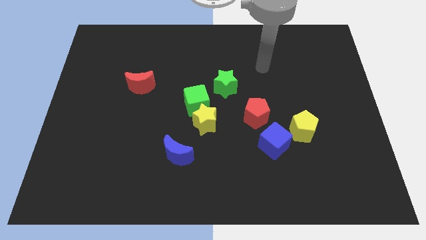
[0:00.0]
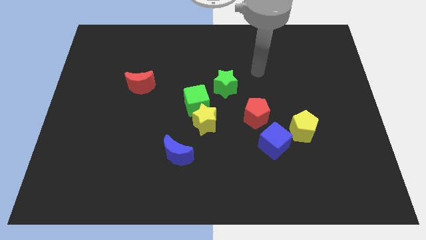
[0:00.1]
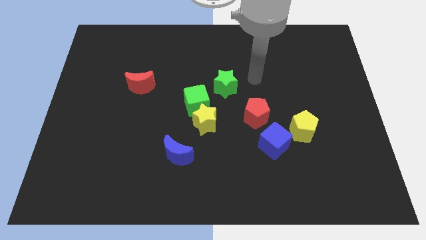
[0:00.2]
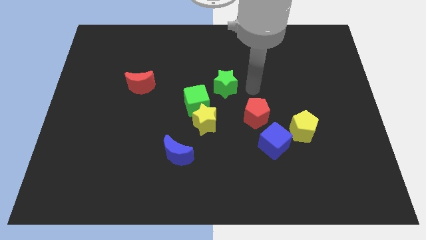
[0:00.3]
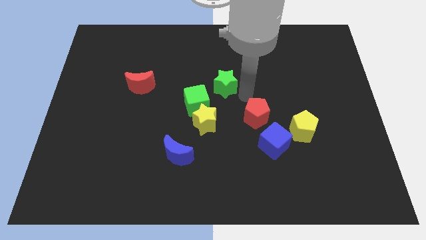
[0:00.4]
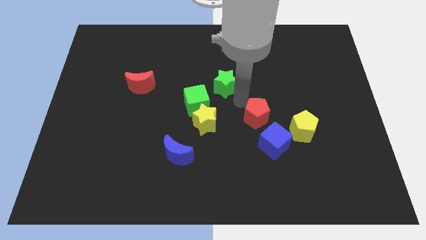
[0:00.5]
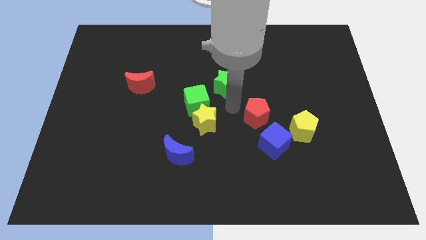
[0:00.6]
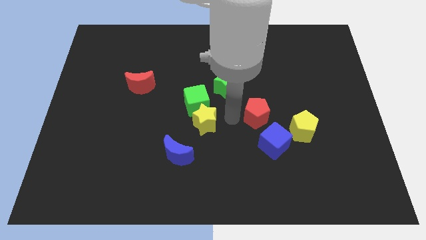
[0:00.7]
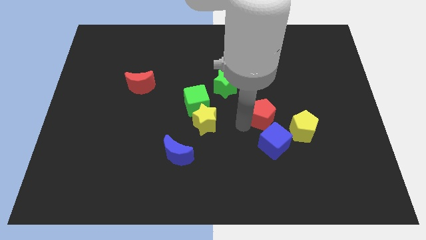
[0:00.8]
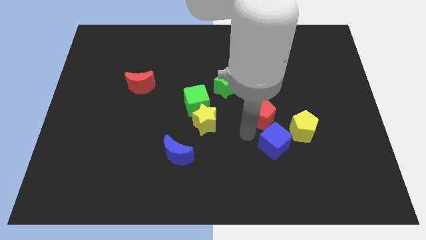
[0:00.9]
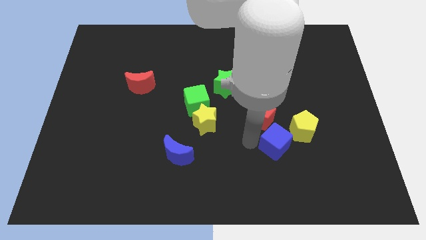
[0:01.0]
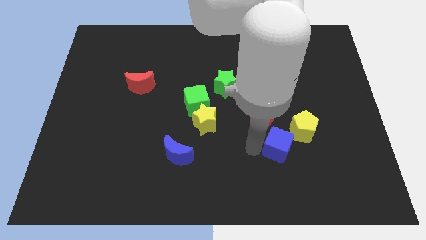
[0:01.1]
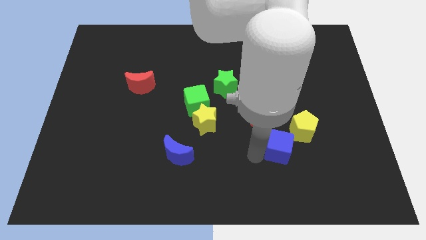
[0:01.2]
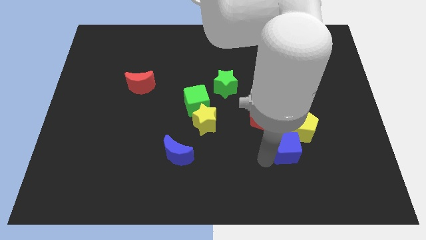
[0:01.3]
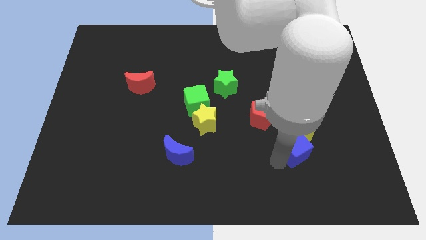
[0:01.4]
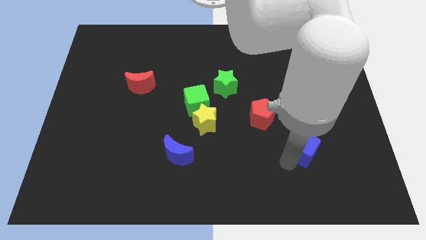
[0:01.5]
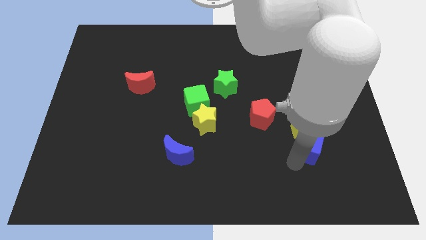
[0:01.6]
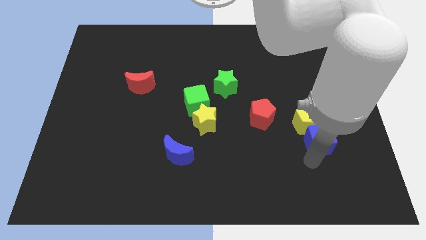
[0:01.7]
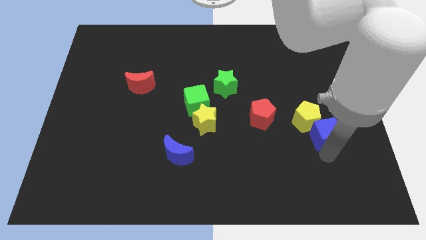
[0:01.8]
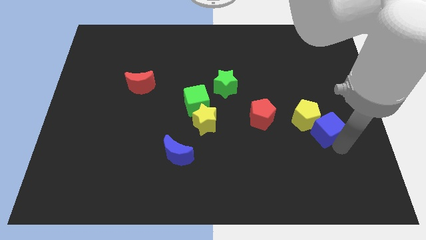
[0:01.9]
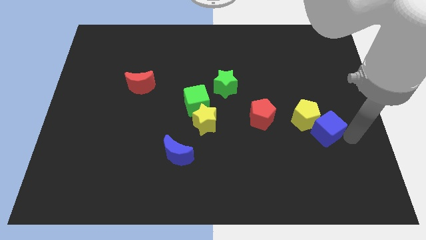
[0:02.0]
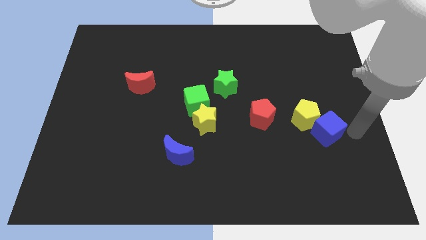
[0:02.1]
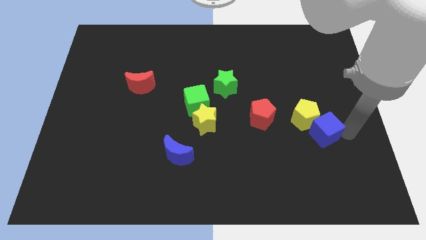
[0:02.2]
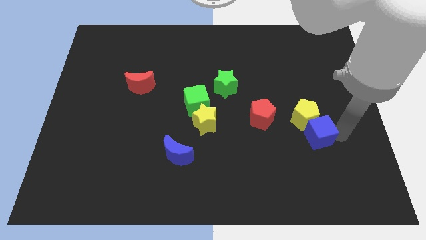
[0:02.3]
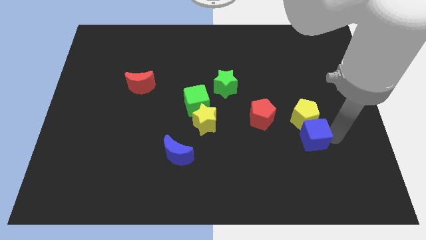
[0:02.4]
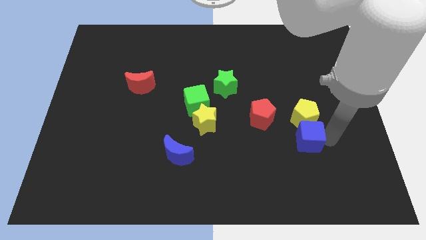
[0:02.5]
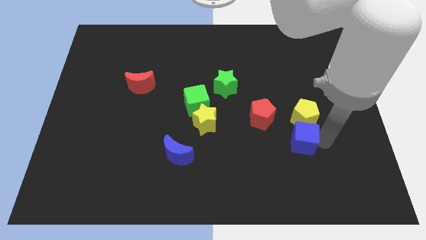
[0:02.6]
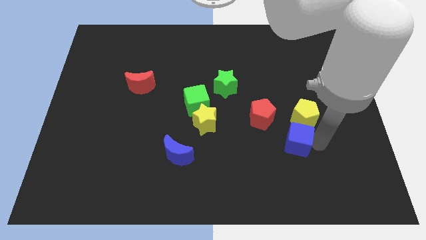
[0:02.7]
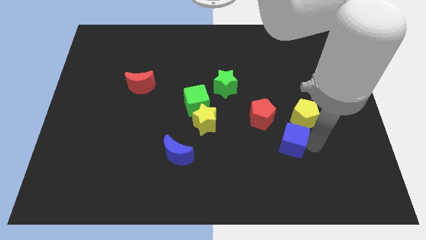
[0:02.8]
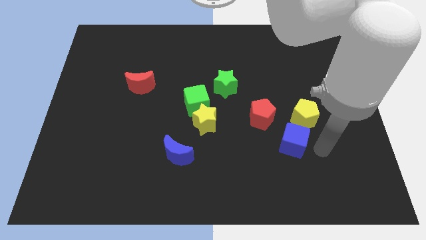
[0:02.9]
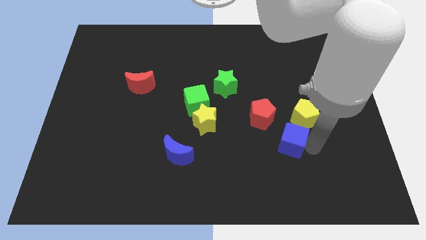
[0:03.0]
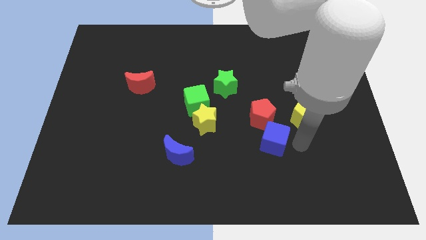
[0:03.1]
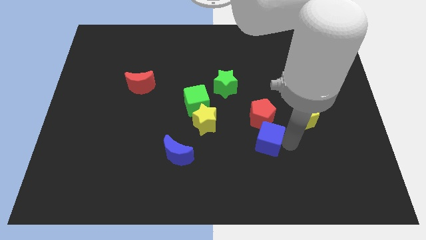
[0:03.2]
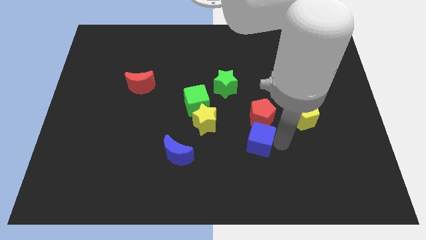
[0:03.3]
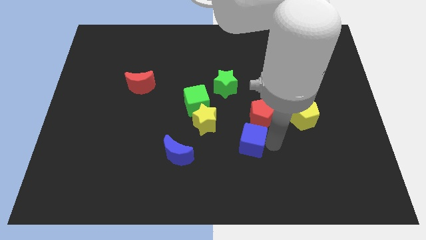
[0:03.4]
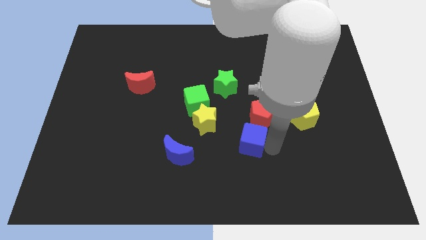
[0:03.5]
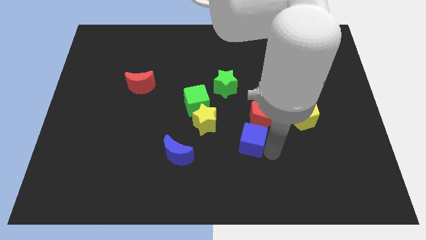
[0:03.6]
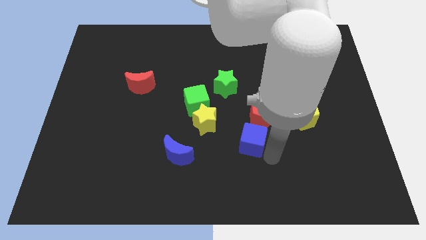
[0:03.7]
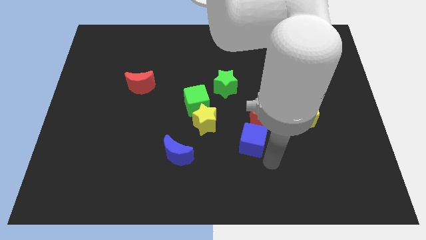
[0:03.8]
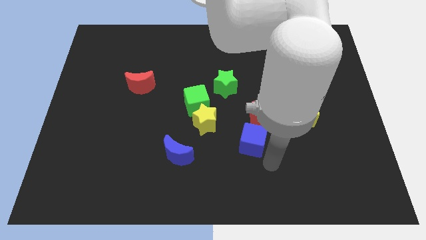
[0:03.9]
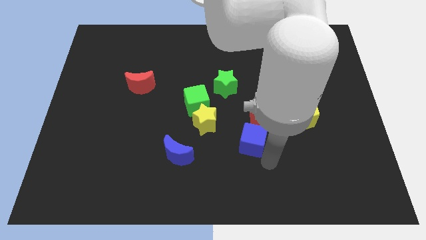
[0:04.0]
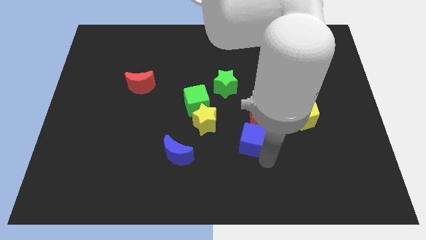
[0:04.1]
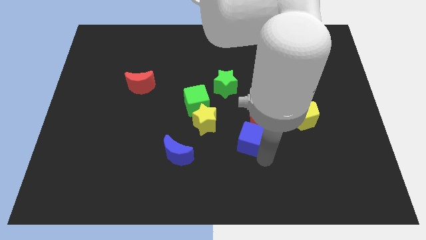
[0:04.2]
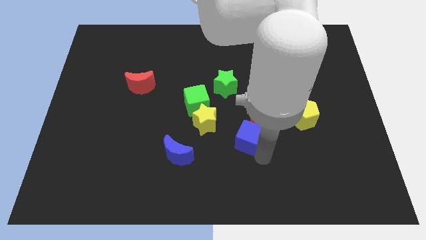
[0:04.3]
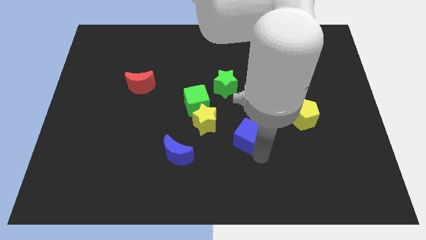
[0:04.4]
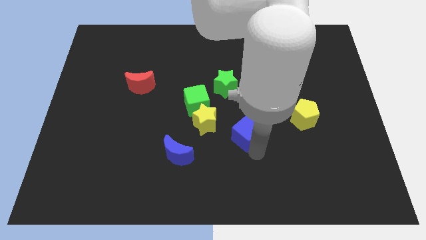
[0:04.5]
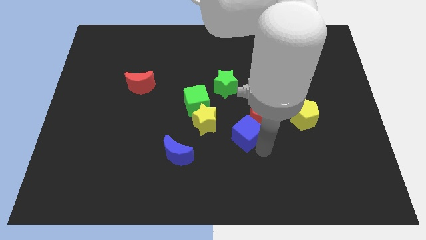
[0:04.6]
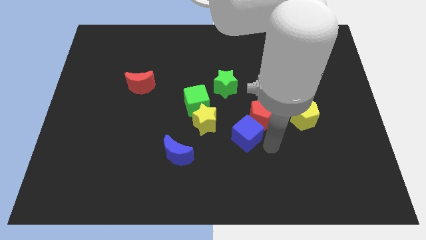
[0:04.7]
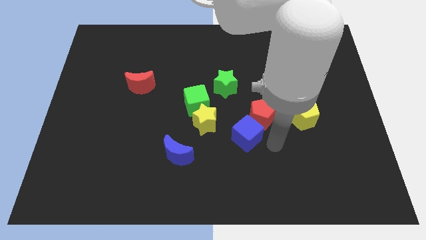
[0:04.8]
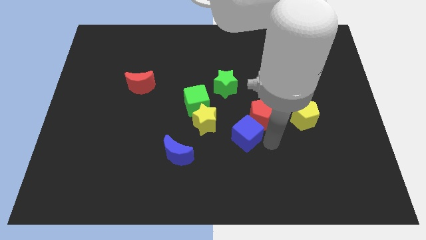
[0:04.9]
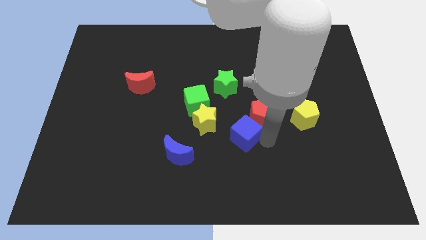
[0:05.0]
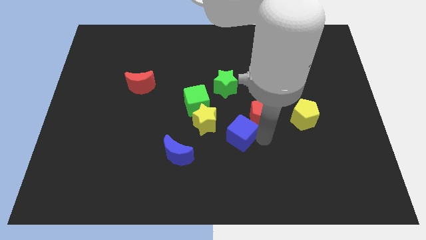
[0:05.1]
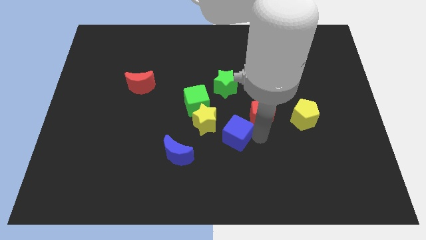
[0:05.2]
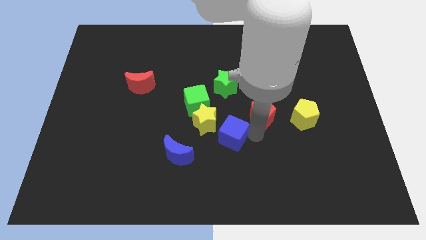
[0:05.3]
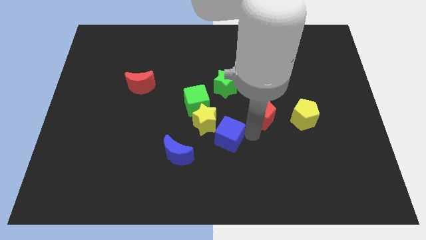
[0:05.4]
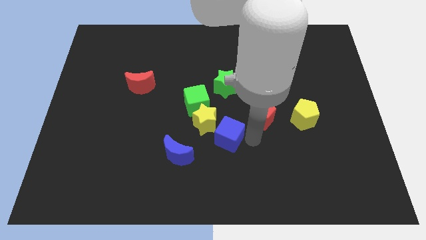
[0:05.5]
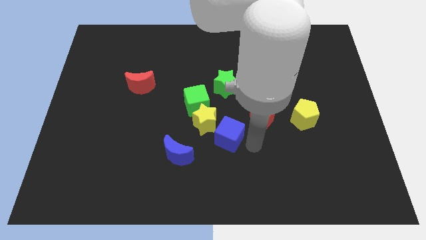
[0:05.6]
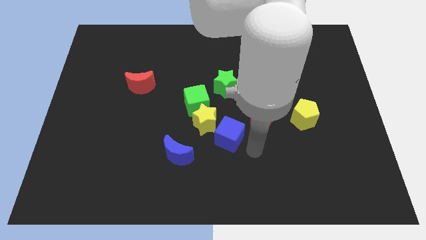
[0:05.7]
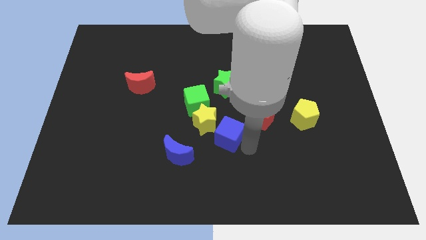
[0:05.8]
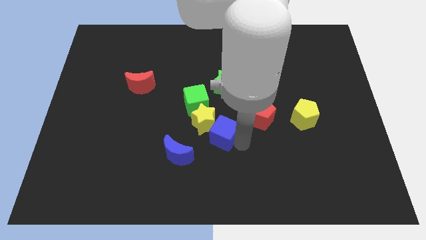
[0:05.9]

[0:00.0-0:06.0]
push the blue cube towards the yellow star

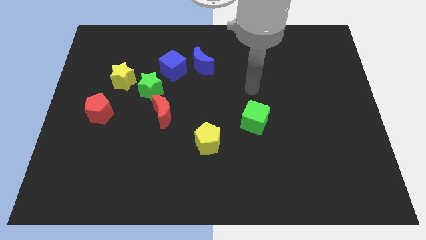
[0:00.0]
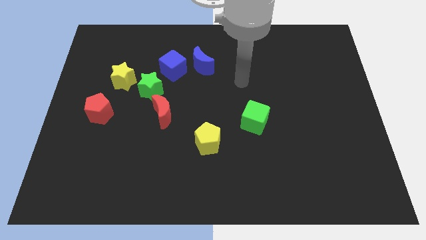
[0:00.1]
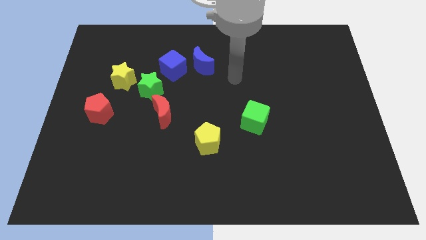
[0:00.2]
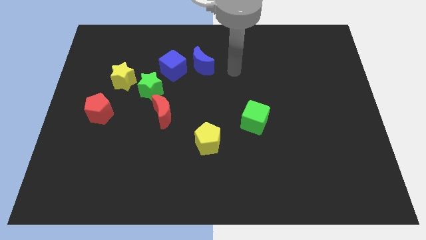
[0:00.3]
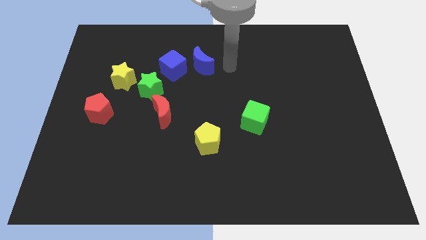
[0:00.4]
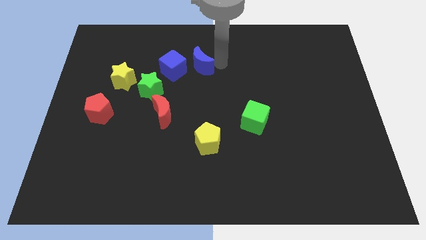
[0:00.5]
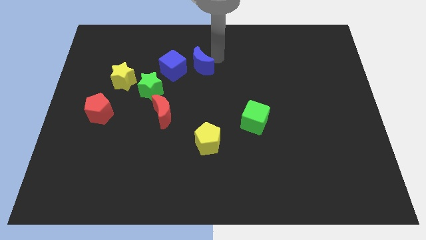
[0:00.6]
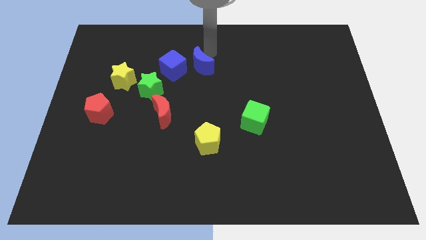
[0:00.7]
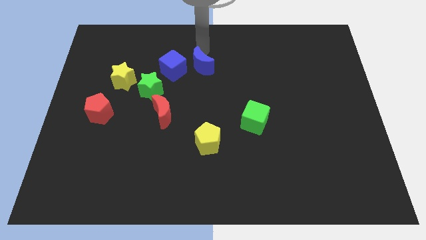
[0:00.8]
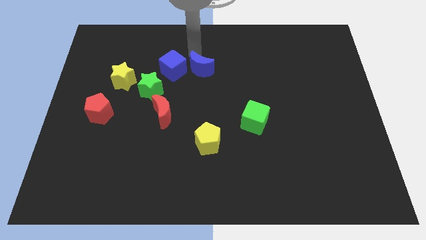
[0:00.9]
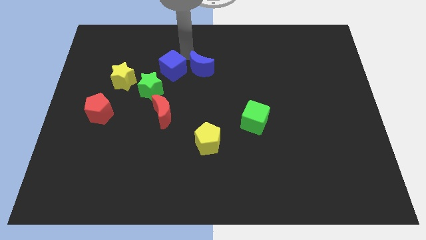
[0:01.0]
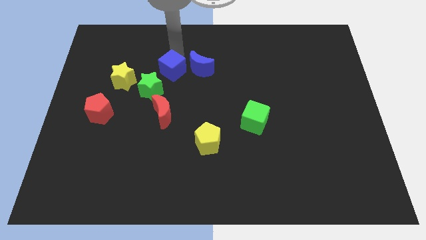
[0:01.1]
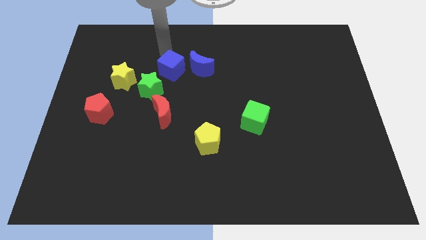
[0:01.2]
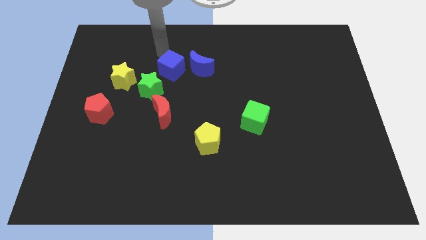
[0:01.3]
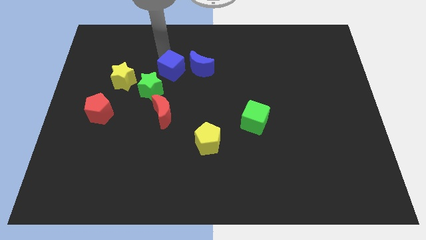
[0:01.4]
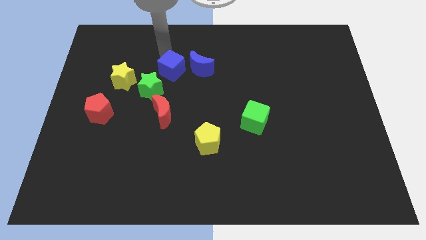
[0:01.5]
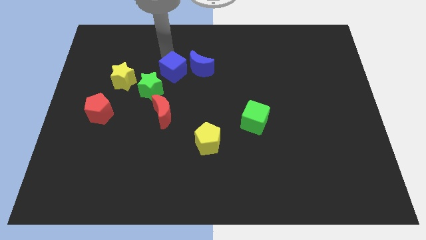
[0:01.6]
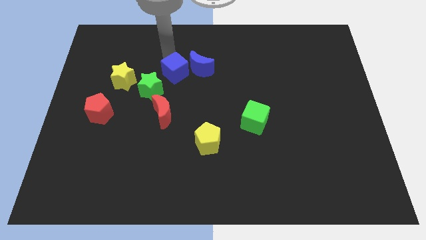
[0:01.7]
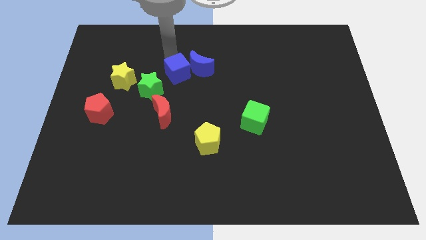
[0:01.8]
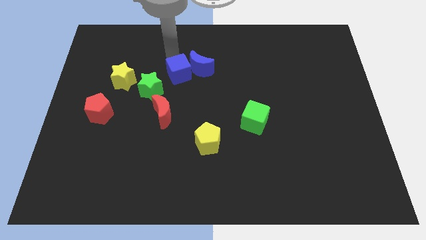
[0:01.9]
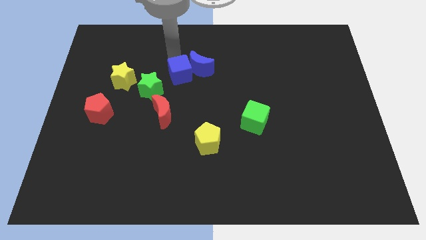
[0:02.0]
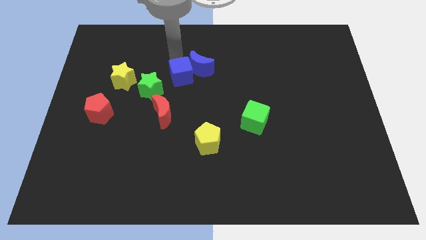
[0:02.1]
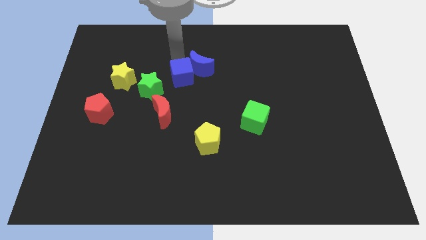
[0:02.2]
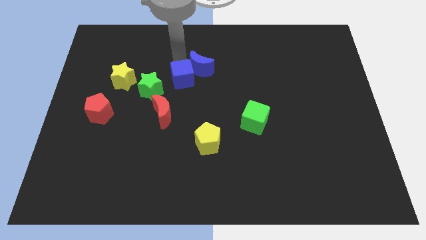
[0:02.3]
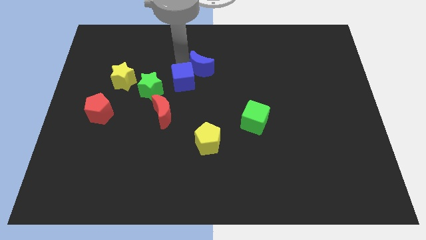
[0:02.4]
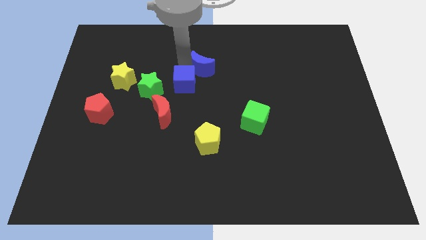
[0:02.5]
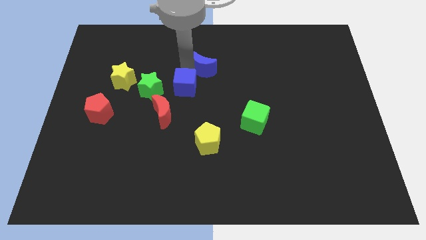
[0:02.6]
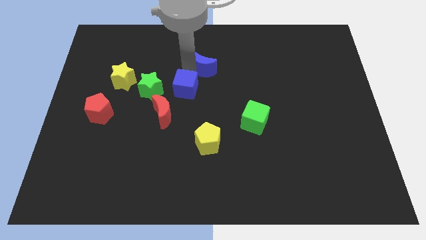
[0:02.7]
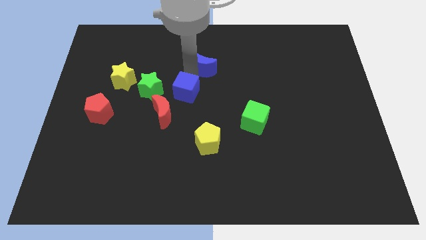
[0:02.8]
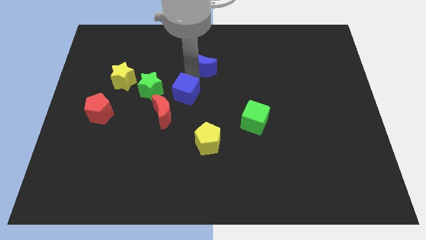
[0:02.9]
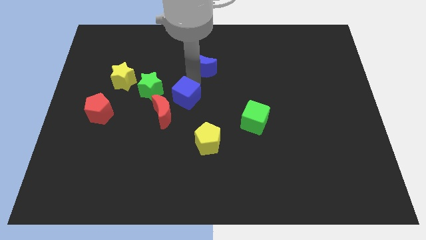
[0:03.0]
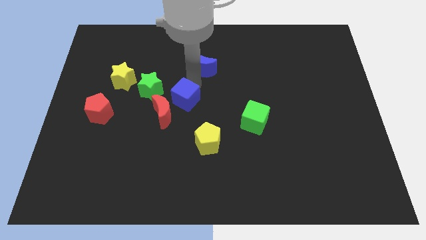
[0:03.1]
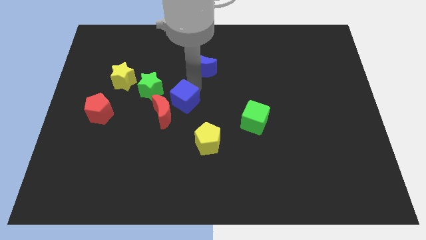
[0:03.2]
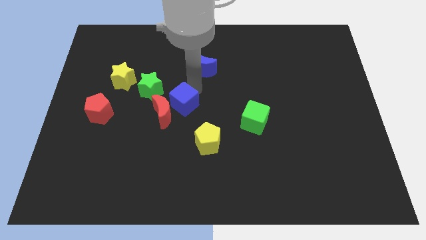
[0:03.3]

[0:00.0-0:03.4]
slide the blue cube close to the red moon
